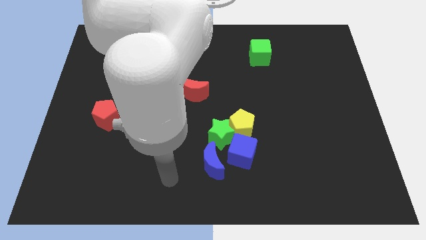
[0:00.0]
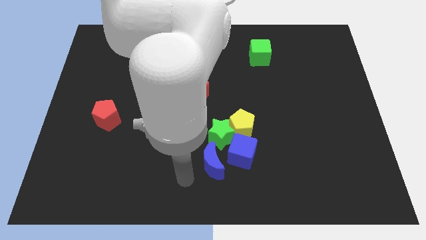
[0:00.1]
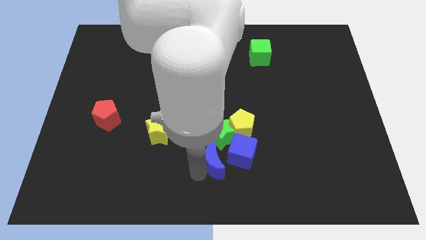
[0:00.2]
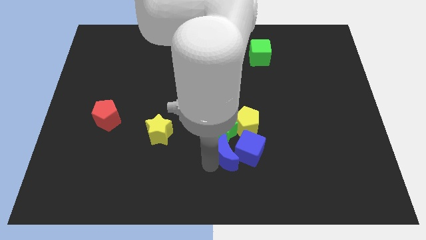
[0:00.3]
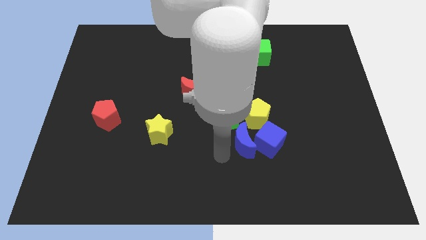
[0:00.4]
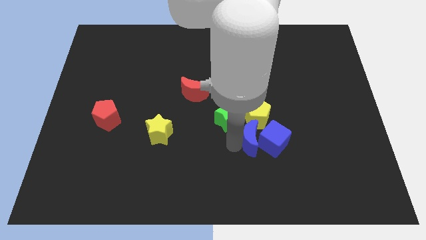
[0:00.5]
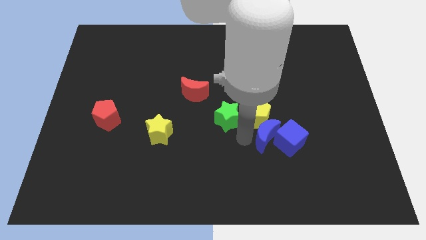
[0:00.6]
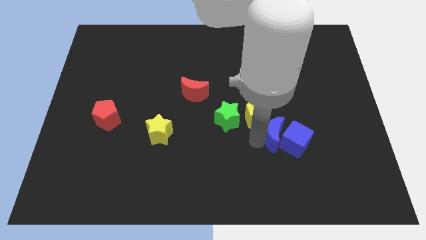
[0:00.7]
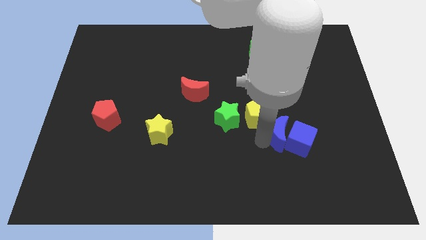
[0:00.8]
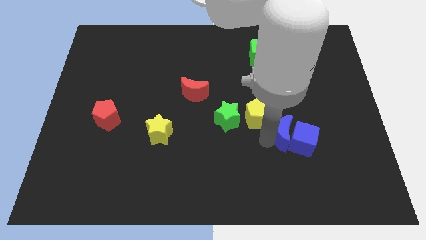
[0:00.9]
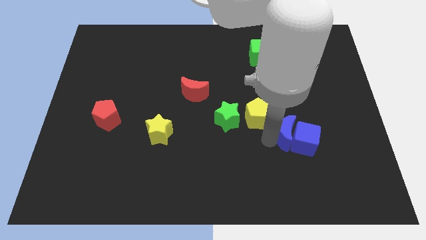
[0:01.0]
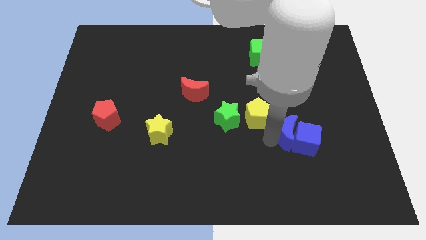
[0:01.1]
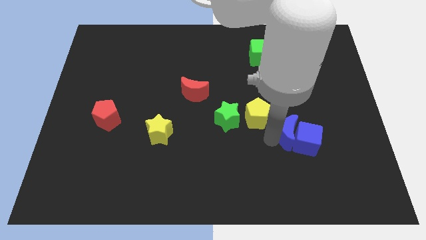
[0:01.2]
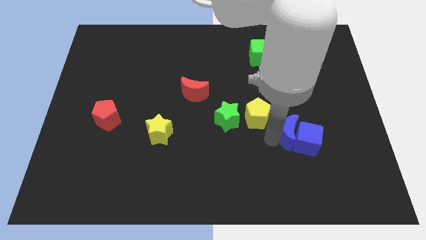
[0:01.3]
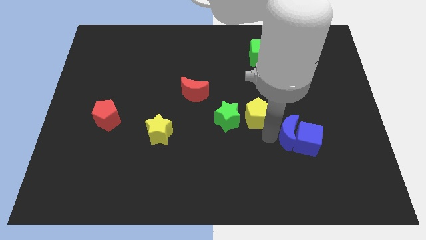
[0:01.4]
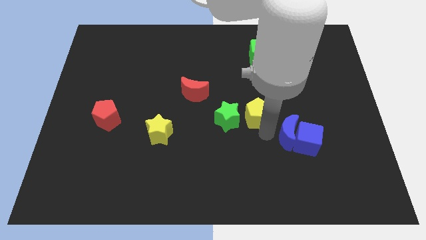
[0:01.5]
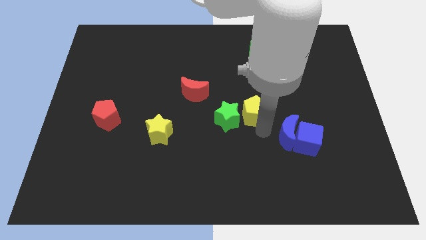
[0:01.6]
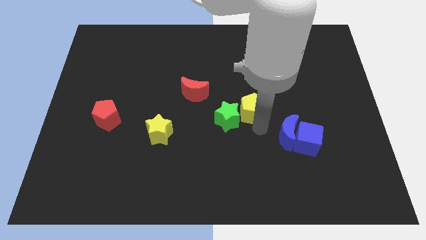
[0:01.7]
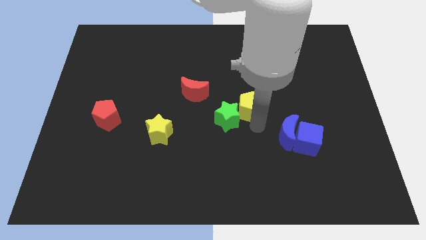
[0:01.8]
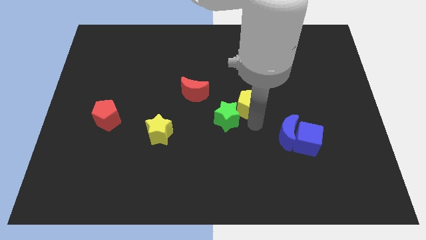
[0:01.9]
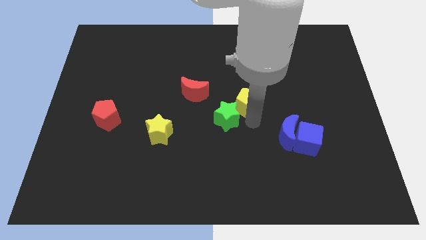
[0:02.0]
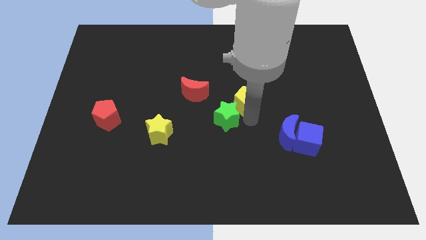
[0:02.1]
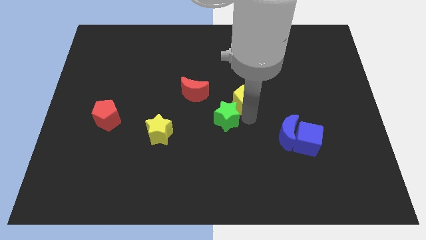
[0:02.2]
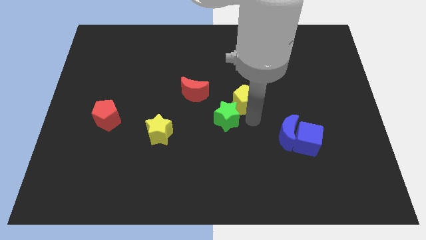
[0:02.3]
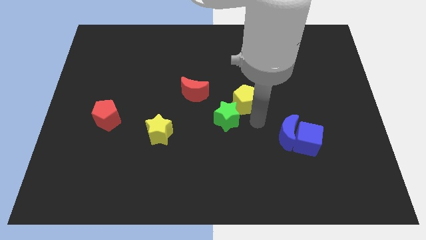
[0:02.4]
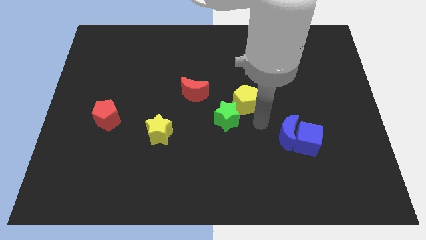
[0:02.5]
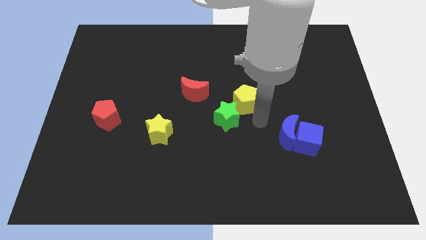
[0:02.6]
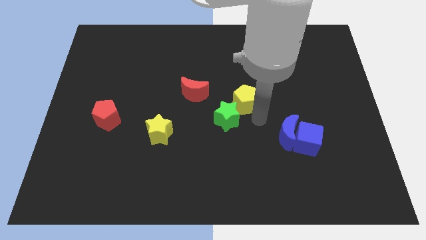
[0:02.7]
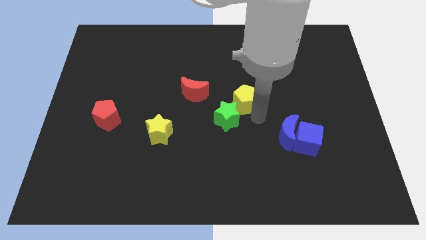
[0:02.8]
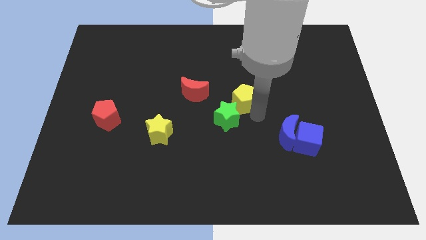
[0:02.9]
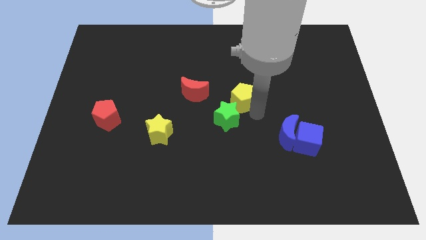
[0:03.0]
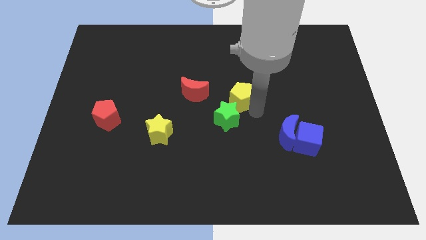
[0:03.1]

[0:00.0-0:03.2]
pull the yellow pentagon apart from the green star and blue cube

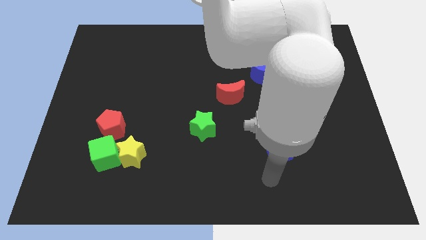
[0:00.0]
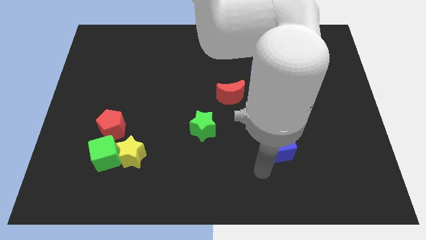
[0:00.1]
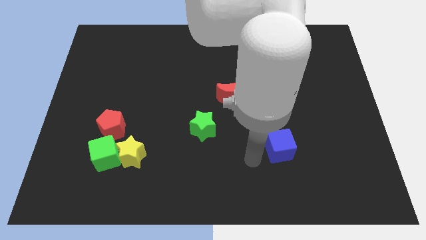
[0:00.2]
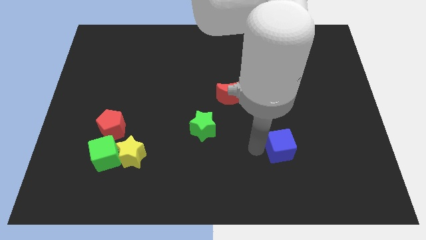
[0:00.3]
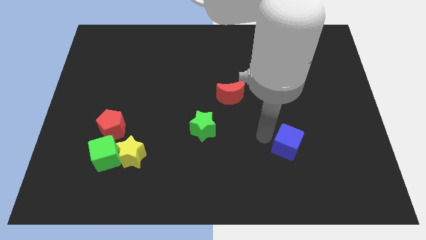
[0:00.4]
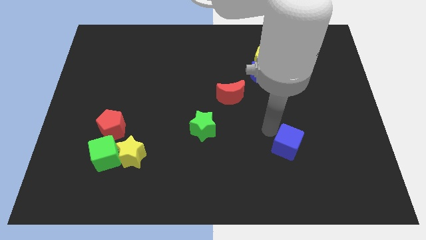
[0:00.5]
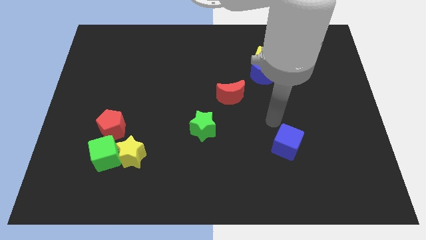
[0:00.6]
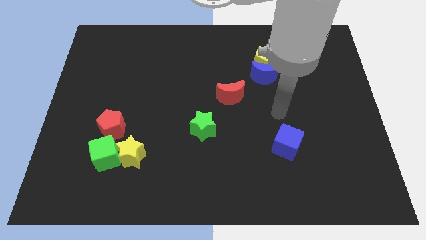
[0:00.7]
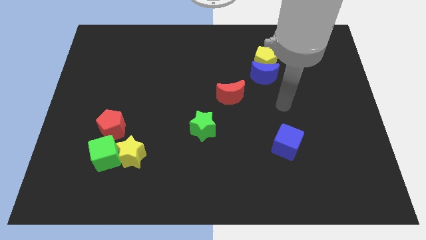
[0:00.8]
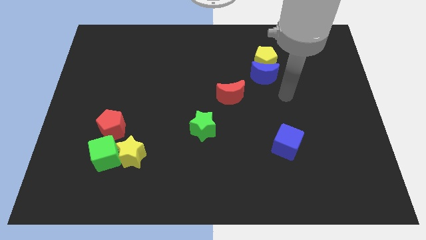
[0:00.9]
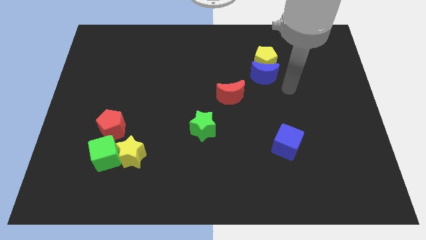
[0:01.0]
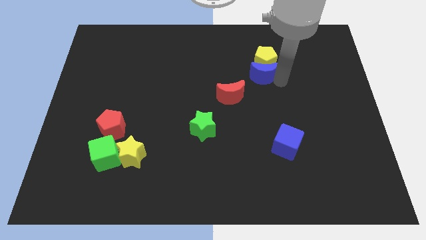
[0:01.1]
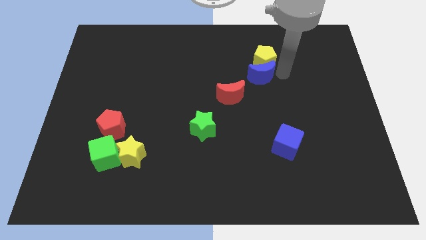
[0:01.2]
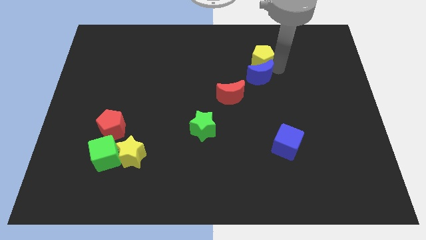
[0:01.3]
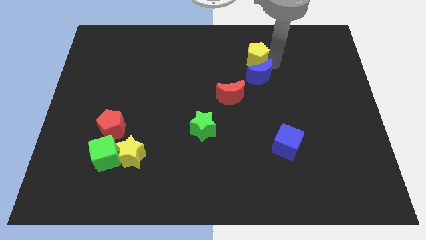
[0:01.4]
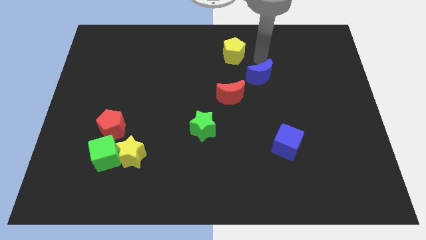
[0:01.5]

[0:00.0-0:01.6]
move the blue moon away from the yellow pentagon

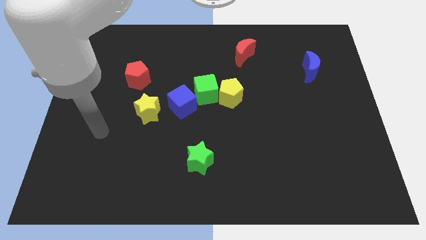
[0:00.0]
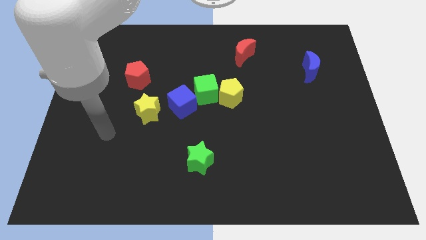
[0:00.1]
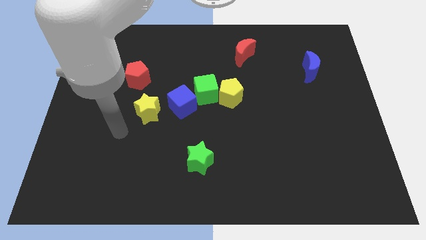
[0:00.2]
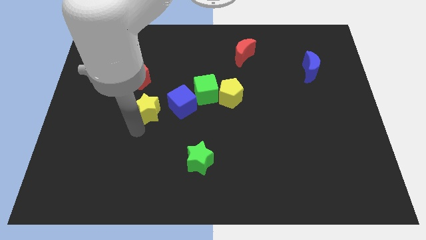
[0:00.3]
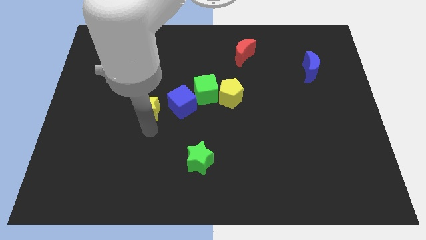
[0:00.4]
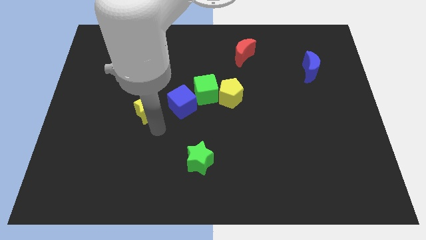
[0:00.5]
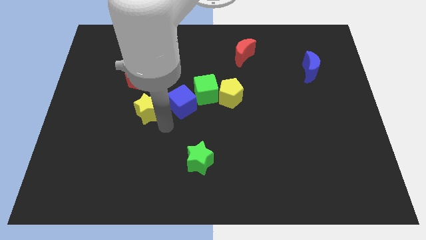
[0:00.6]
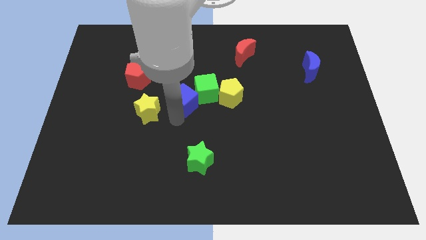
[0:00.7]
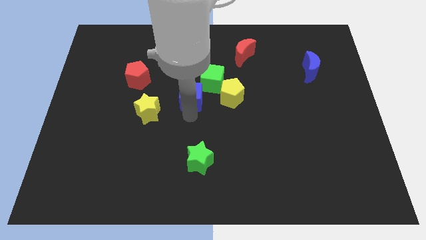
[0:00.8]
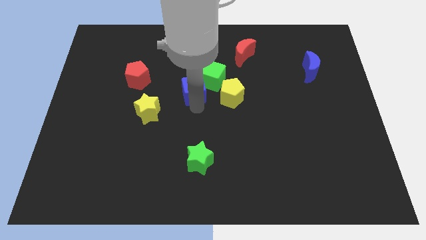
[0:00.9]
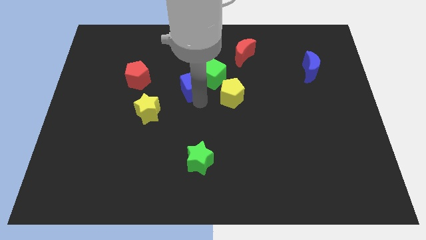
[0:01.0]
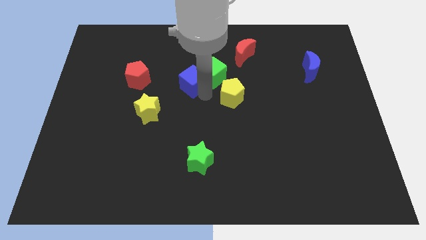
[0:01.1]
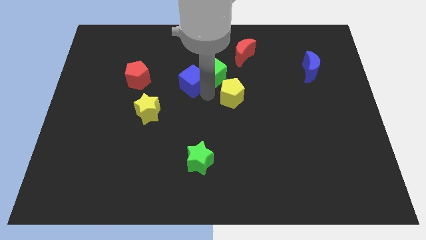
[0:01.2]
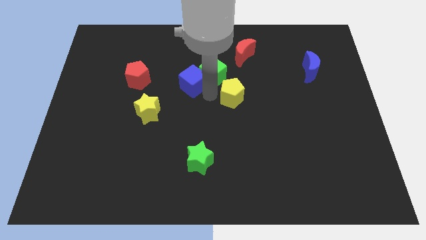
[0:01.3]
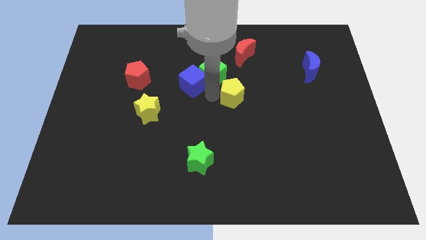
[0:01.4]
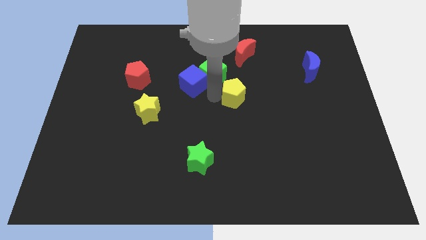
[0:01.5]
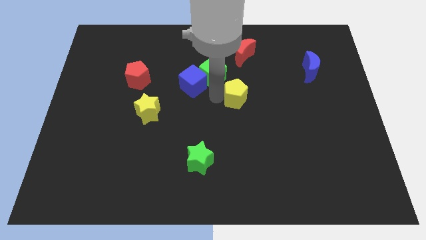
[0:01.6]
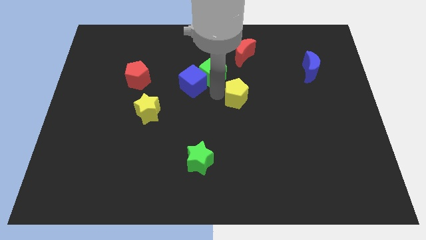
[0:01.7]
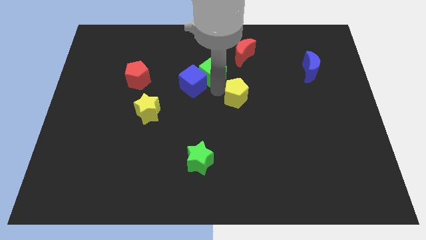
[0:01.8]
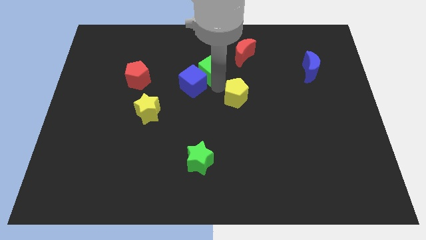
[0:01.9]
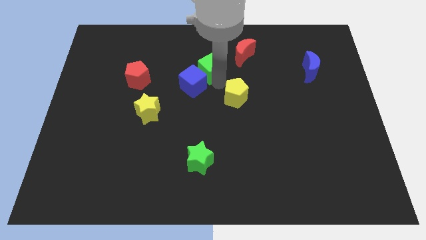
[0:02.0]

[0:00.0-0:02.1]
move the yellow pentagon away from the green cube

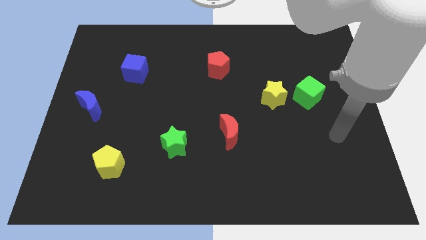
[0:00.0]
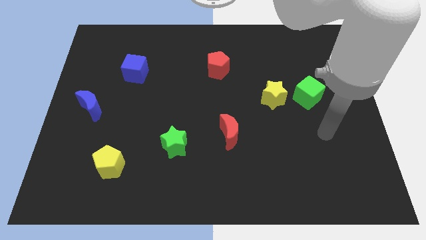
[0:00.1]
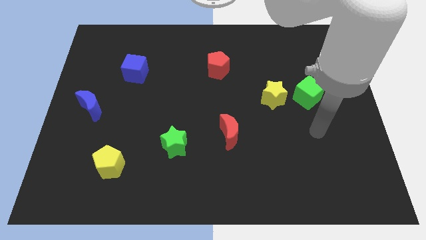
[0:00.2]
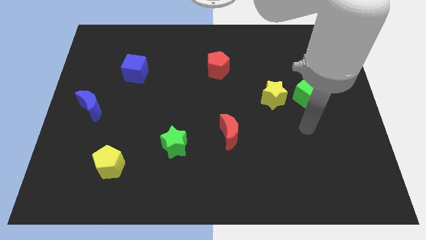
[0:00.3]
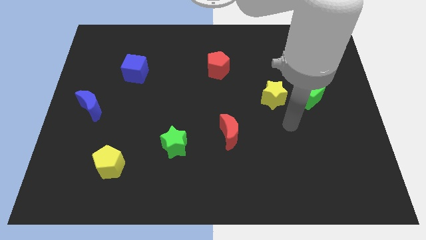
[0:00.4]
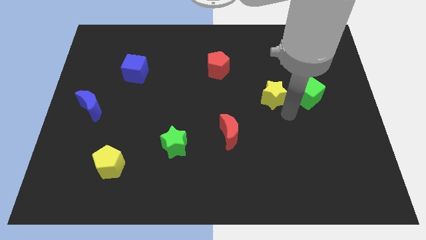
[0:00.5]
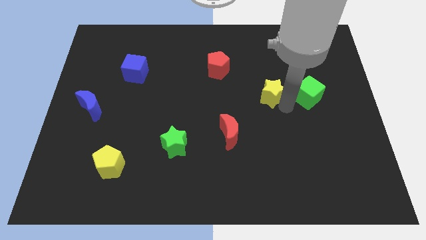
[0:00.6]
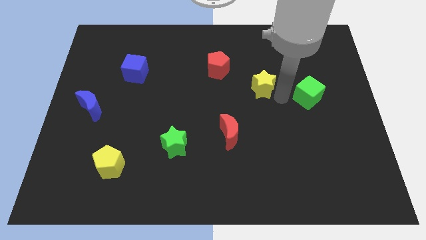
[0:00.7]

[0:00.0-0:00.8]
move the green cube away from the yellow star

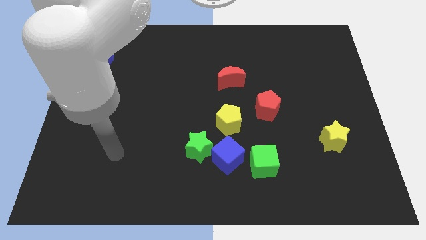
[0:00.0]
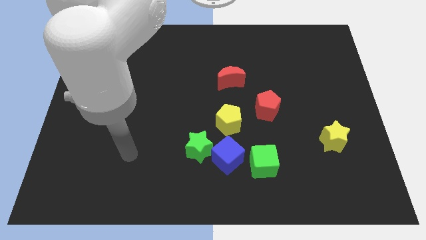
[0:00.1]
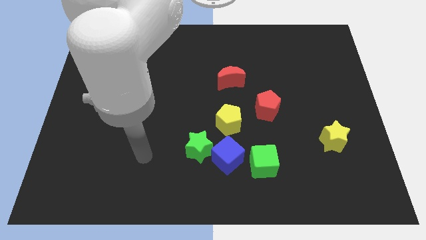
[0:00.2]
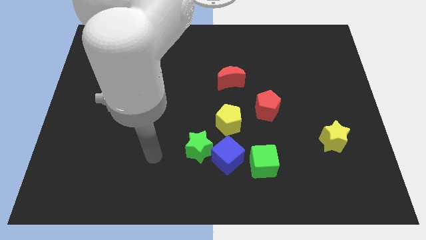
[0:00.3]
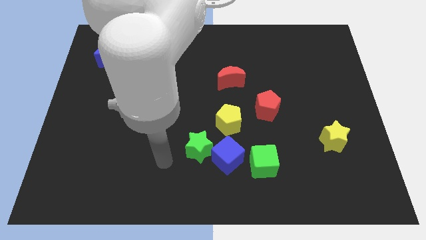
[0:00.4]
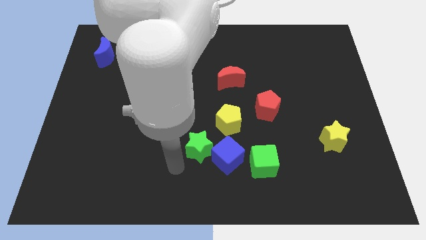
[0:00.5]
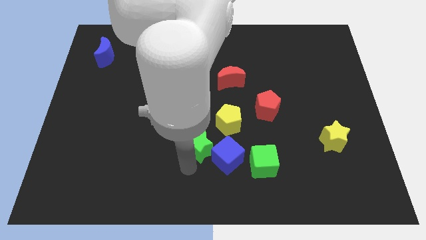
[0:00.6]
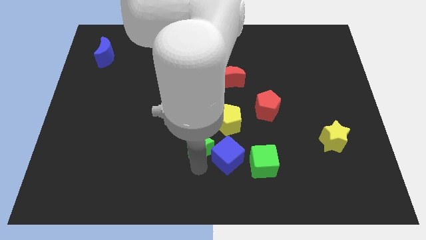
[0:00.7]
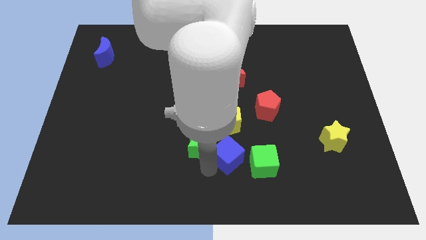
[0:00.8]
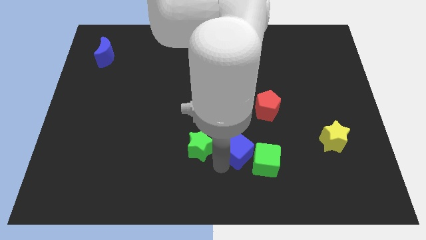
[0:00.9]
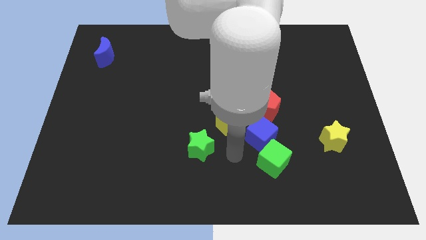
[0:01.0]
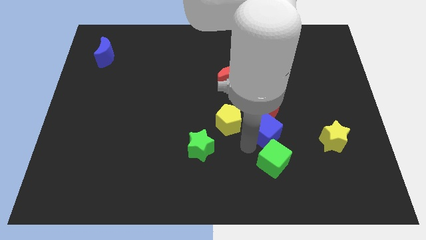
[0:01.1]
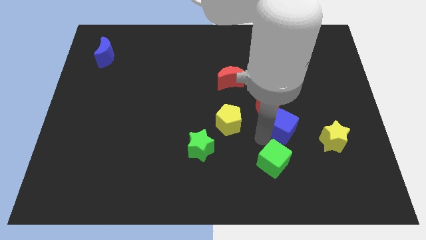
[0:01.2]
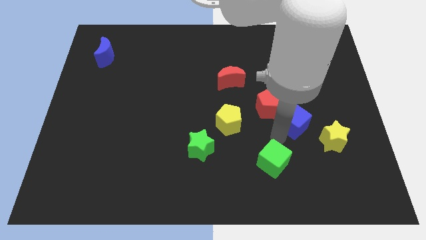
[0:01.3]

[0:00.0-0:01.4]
separate the green cube from the blue cube

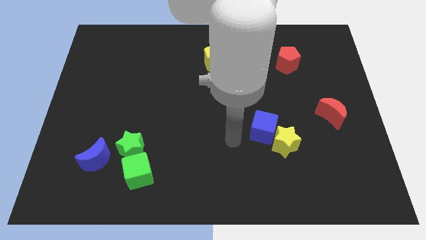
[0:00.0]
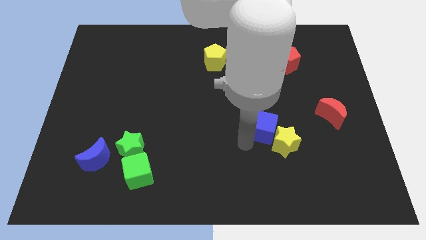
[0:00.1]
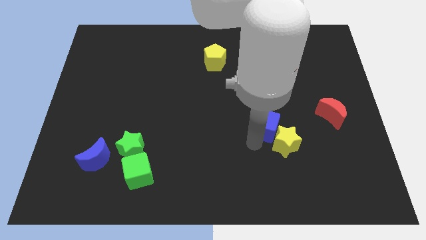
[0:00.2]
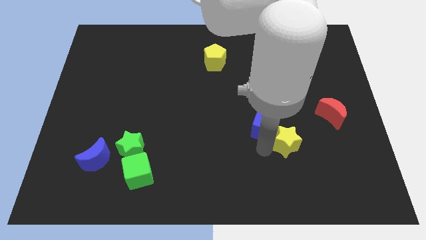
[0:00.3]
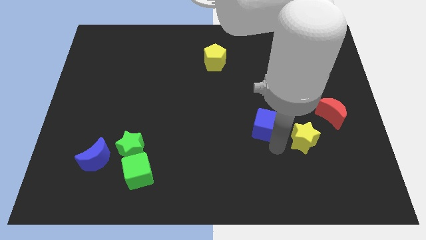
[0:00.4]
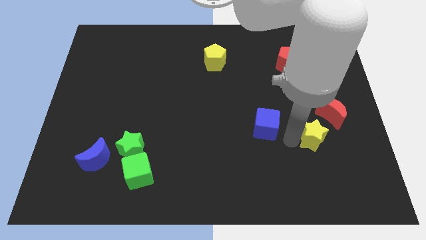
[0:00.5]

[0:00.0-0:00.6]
move the blue cube away from the yellow star
